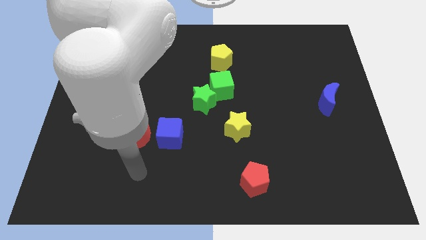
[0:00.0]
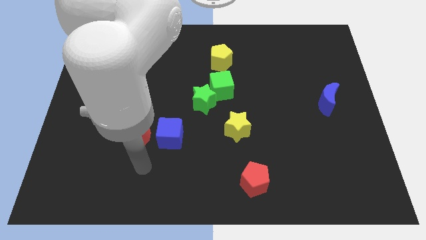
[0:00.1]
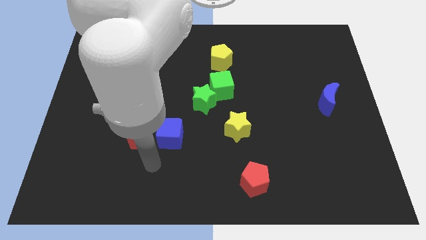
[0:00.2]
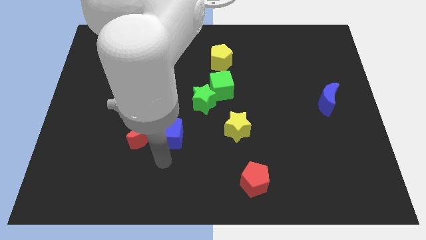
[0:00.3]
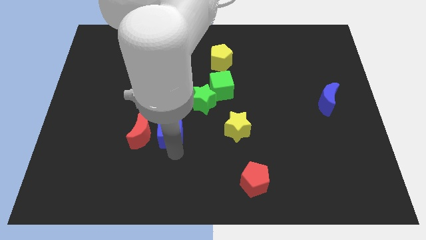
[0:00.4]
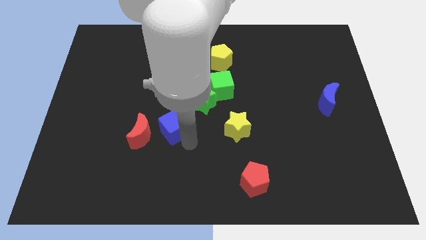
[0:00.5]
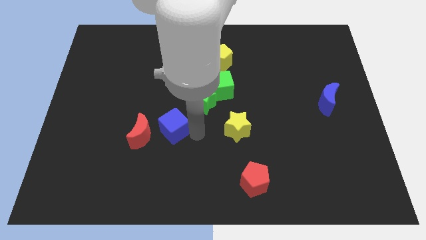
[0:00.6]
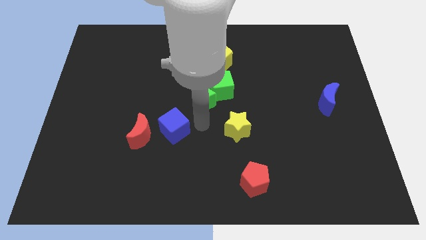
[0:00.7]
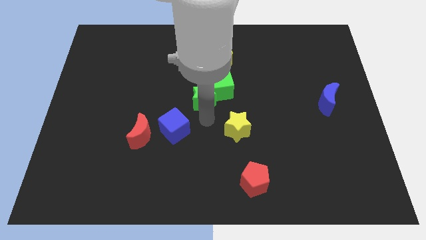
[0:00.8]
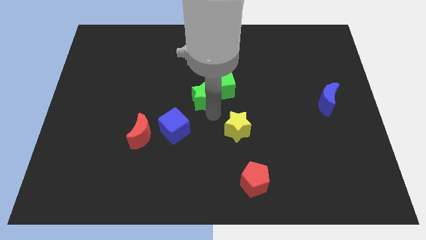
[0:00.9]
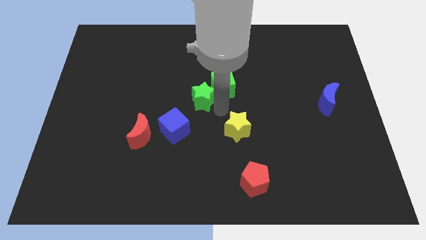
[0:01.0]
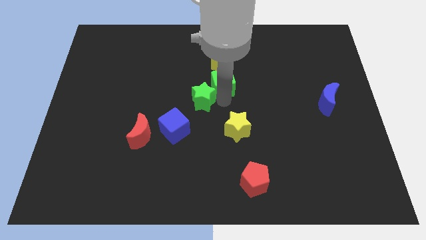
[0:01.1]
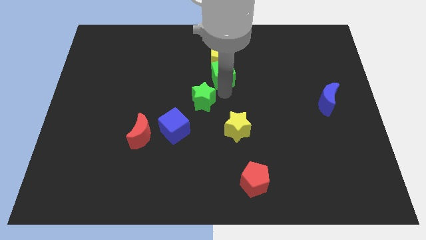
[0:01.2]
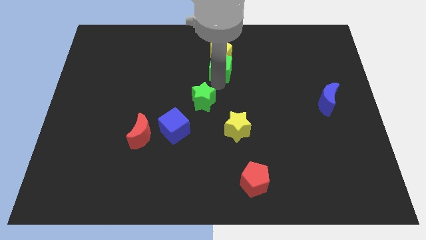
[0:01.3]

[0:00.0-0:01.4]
move the green star away from the green cube

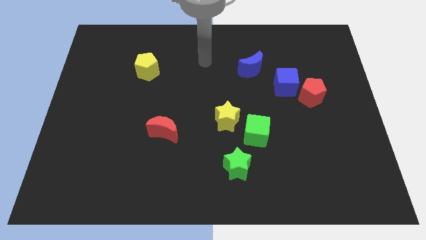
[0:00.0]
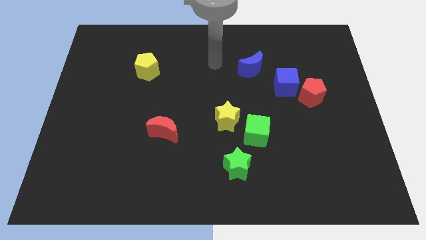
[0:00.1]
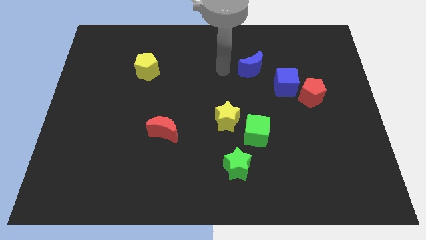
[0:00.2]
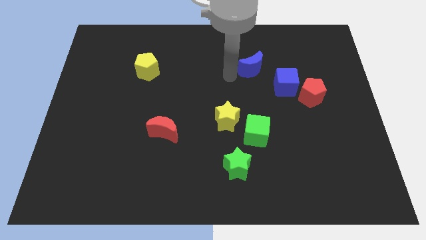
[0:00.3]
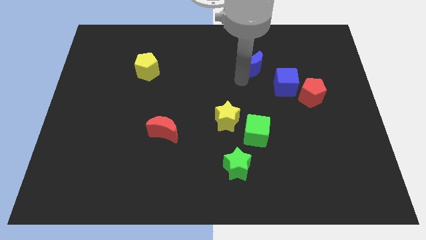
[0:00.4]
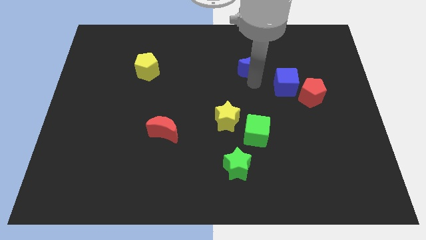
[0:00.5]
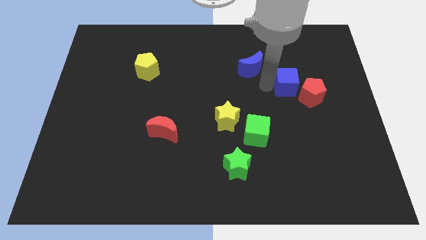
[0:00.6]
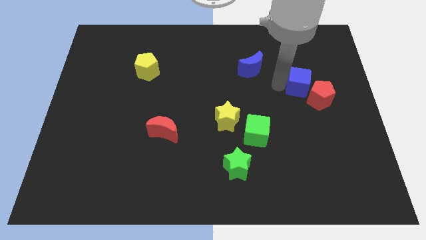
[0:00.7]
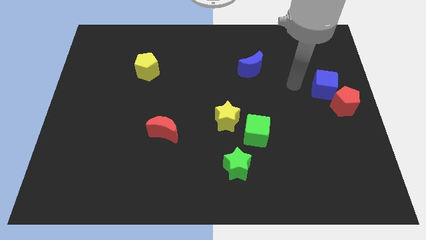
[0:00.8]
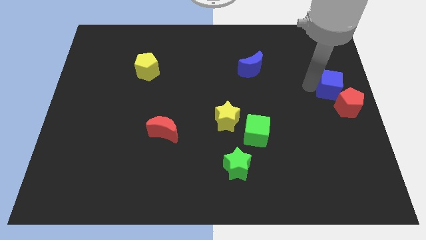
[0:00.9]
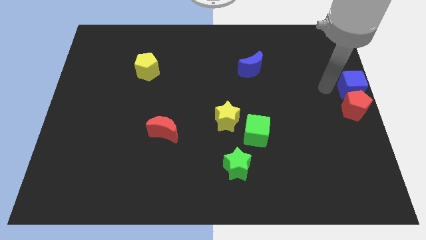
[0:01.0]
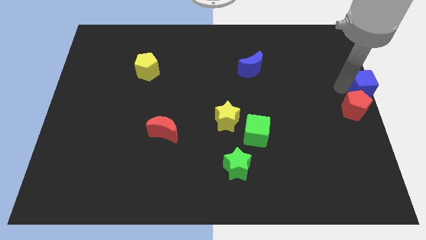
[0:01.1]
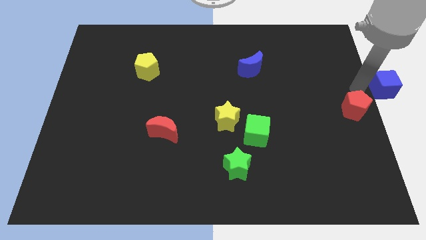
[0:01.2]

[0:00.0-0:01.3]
pull the red pentagon apart from the blue cube

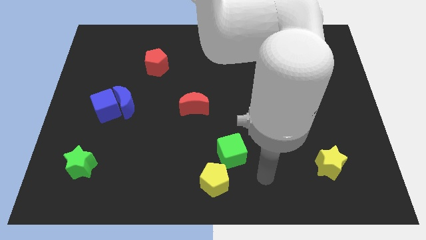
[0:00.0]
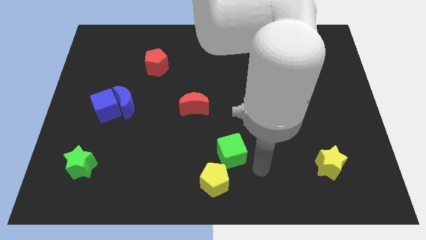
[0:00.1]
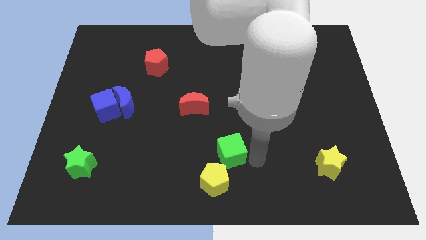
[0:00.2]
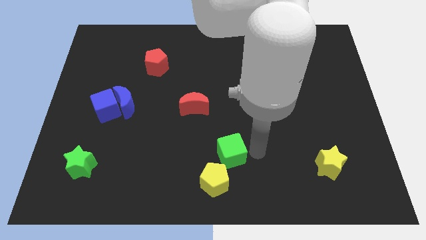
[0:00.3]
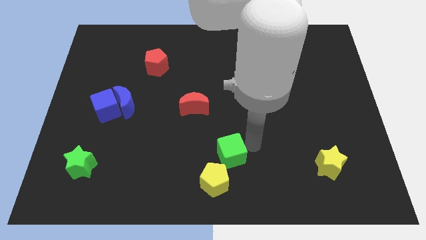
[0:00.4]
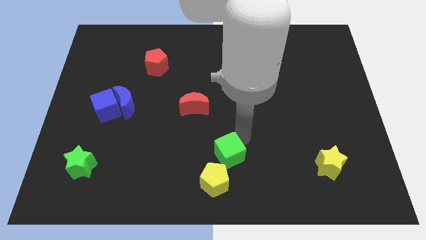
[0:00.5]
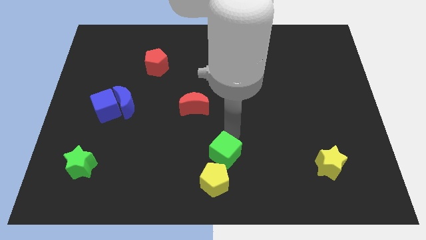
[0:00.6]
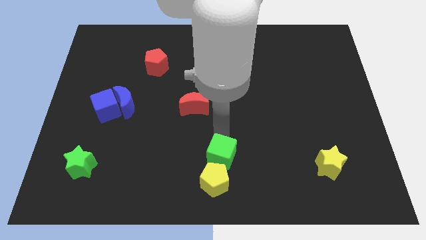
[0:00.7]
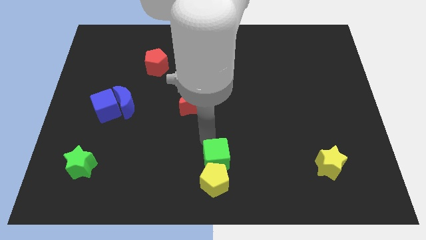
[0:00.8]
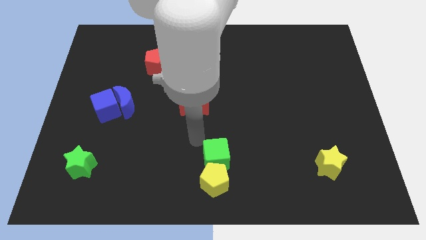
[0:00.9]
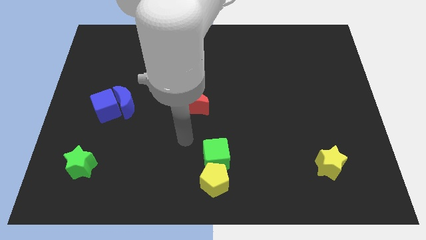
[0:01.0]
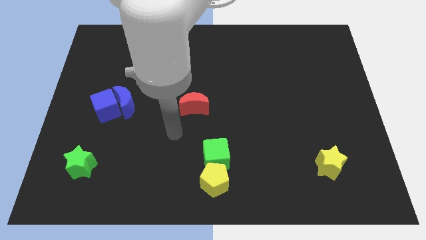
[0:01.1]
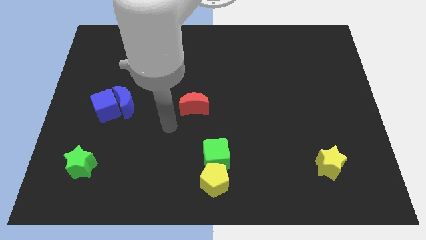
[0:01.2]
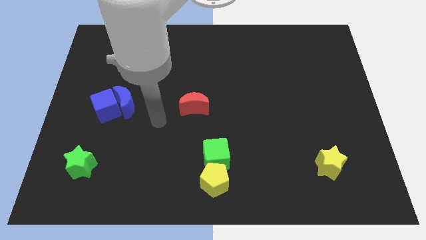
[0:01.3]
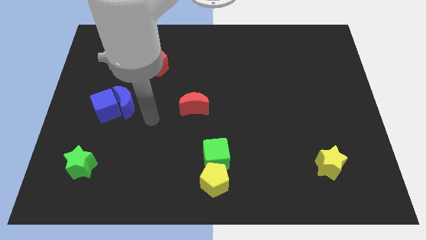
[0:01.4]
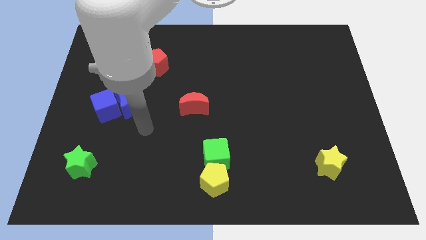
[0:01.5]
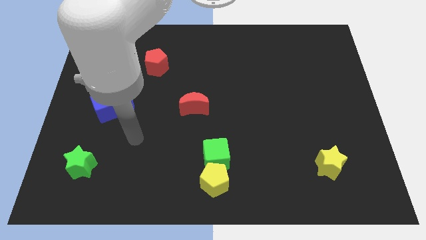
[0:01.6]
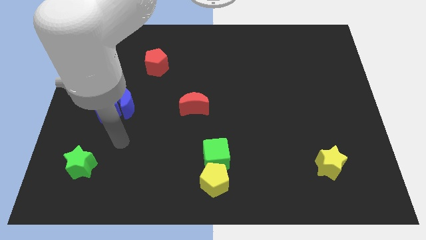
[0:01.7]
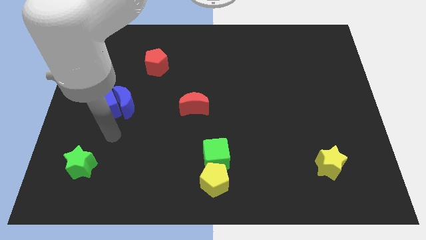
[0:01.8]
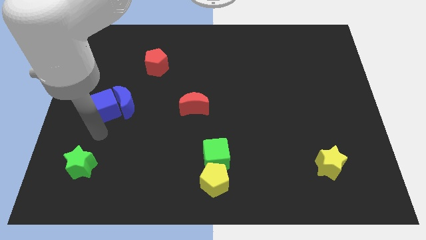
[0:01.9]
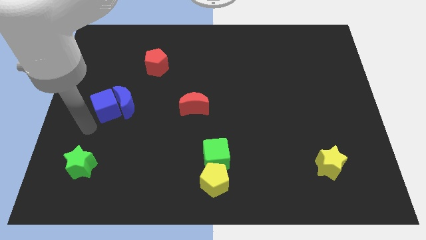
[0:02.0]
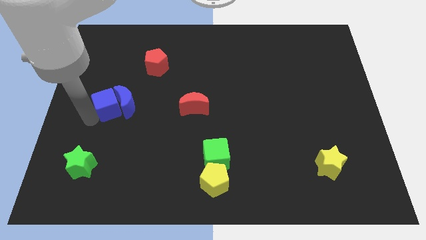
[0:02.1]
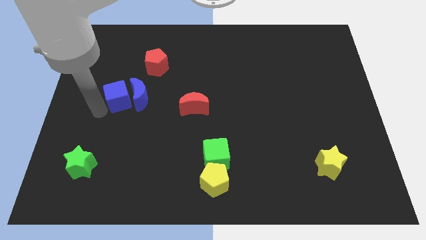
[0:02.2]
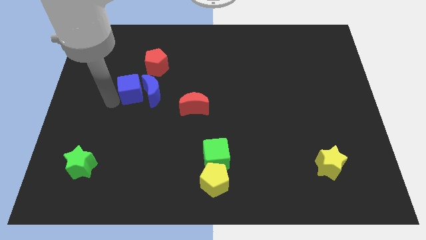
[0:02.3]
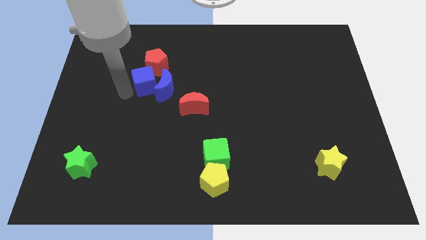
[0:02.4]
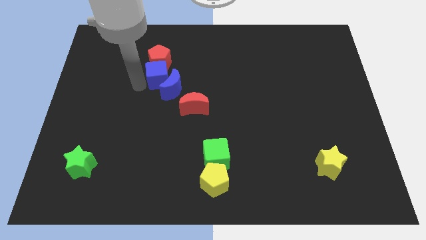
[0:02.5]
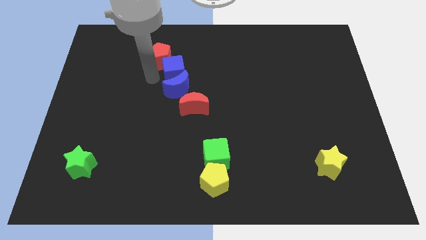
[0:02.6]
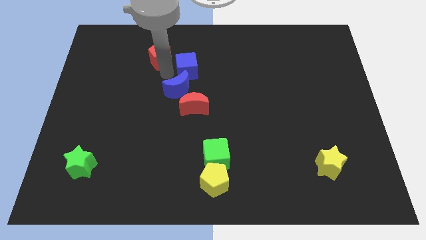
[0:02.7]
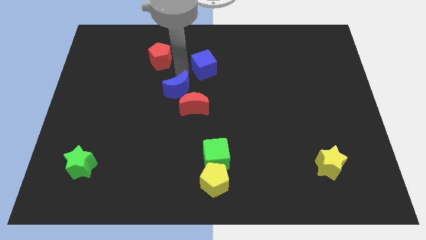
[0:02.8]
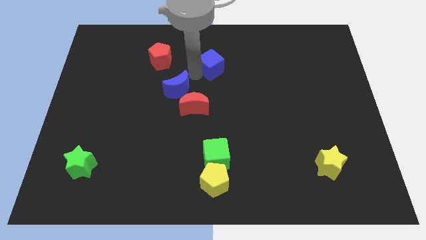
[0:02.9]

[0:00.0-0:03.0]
separate the blue moon from the blue cube

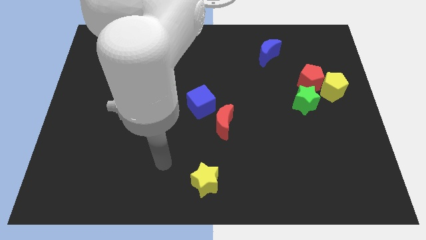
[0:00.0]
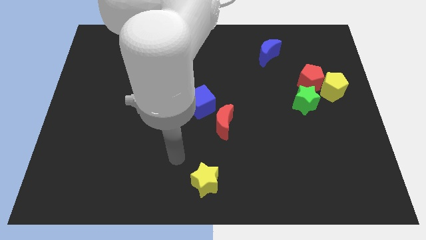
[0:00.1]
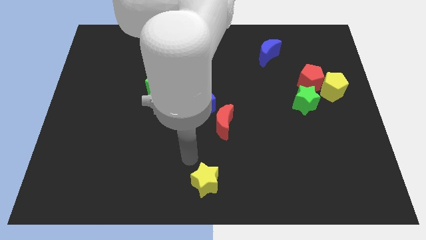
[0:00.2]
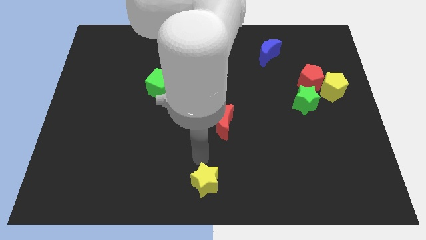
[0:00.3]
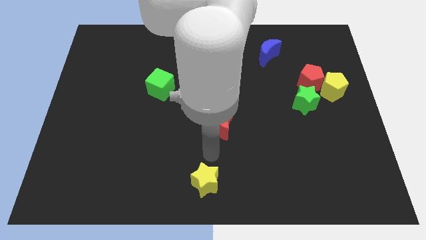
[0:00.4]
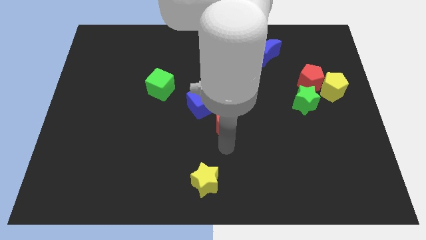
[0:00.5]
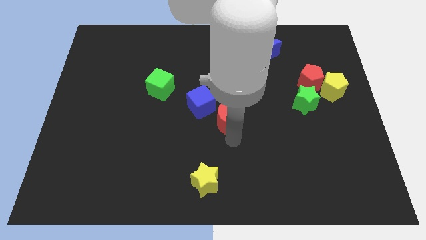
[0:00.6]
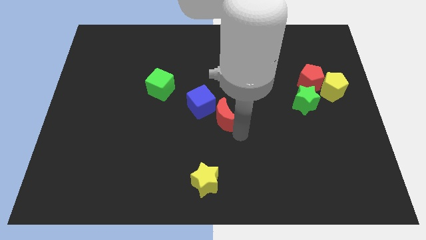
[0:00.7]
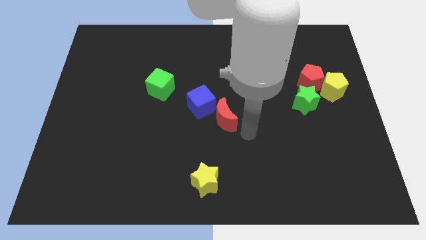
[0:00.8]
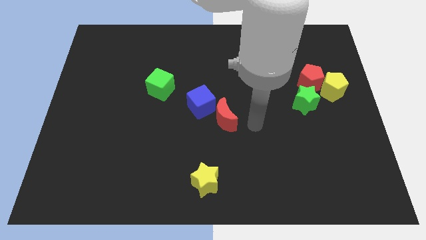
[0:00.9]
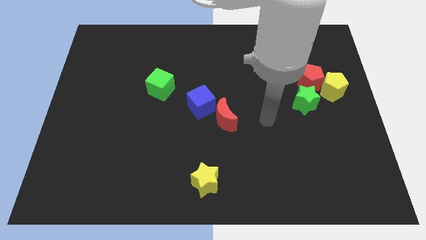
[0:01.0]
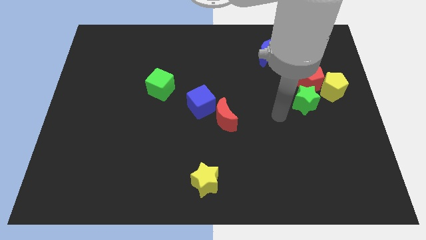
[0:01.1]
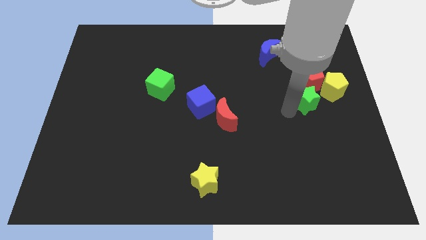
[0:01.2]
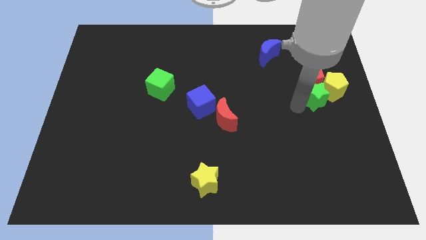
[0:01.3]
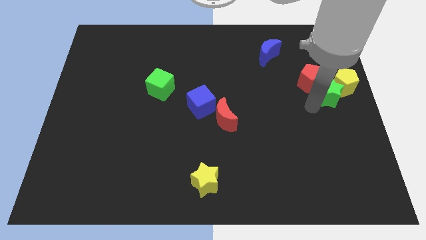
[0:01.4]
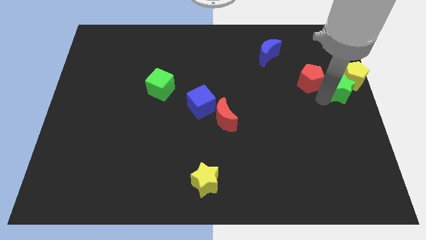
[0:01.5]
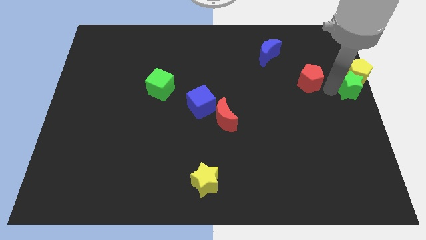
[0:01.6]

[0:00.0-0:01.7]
pull the red pentagon apart from the yellow pentagon and green star

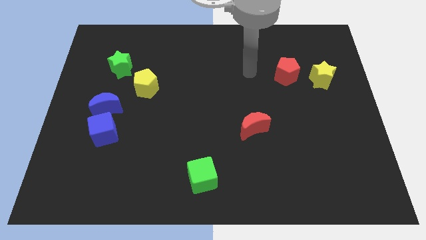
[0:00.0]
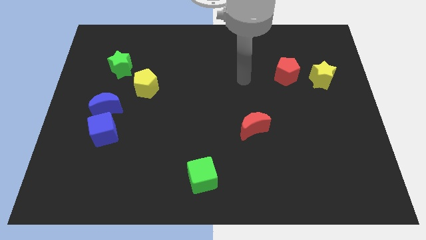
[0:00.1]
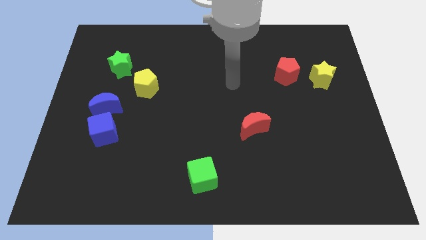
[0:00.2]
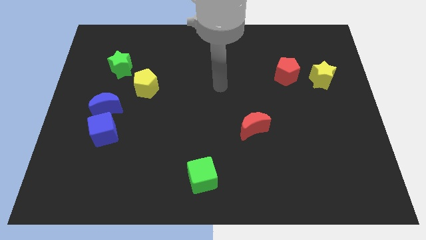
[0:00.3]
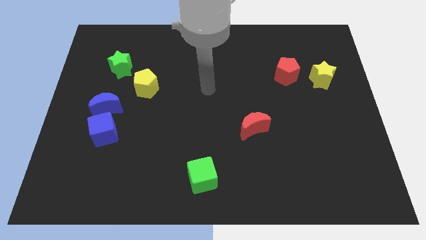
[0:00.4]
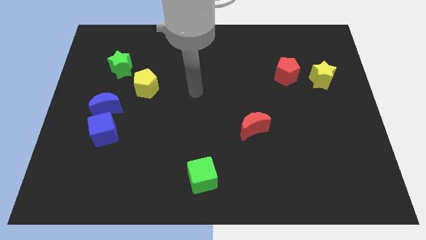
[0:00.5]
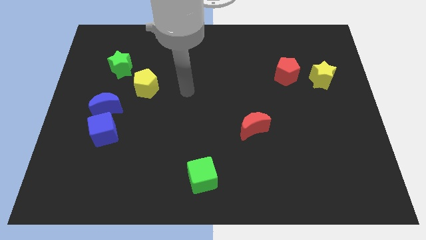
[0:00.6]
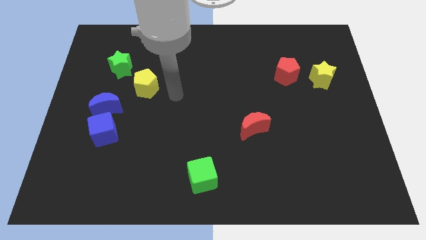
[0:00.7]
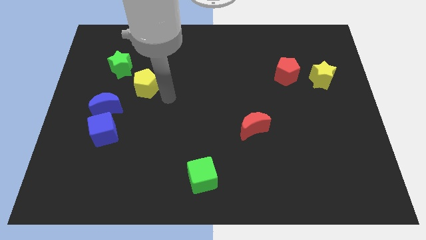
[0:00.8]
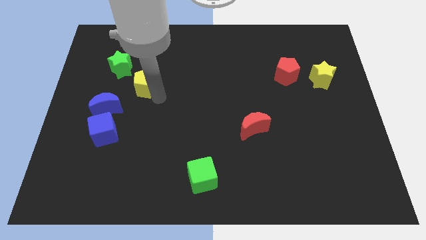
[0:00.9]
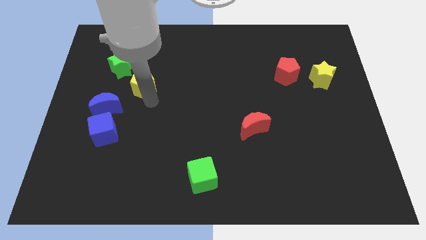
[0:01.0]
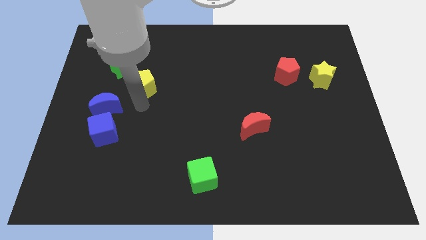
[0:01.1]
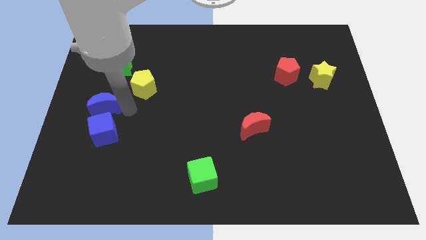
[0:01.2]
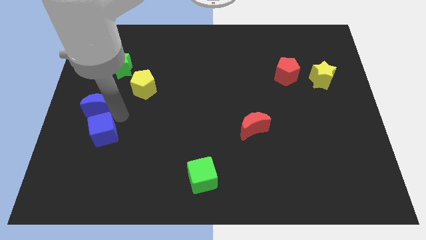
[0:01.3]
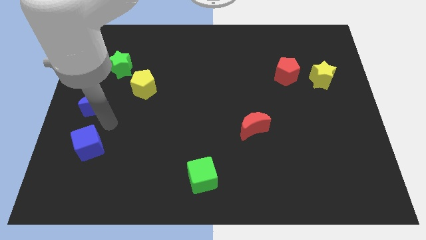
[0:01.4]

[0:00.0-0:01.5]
pull the blue moon apart from the blue cube

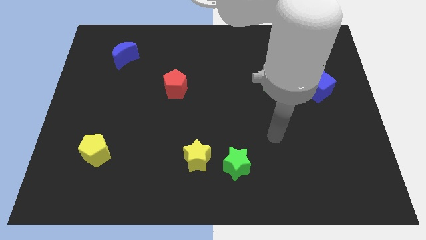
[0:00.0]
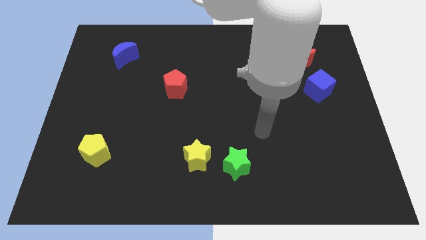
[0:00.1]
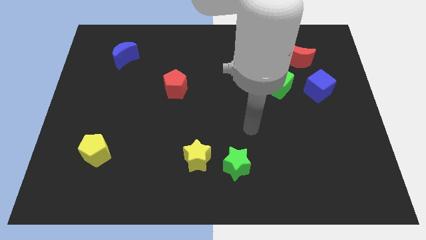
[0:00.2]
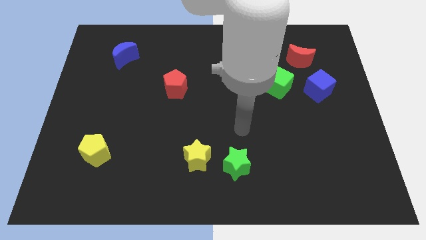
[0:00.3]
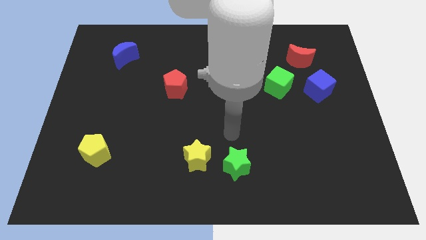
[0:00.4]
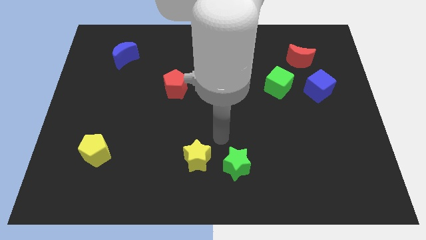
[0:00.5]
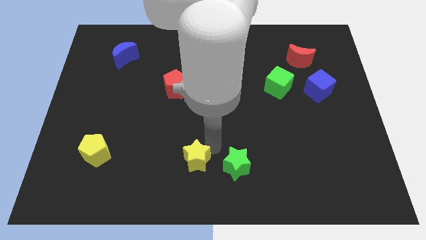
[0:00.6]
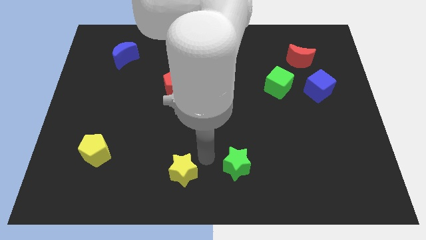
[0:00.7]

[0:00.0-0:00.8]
move the green star away from the yellow star
